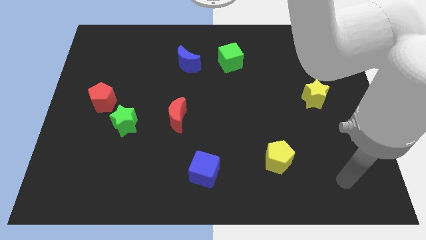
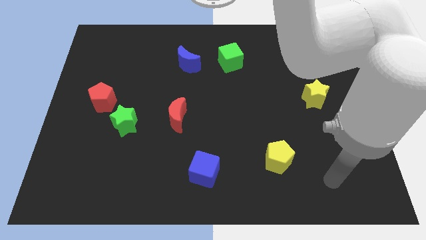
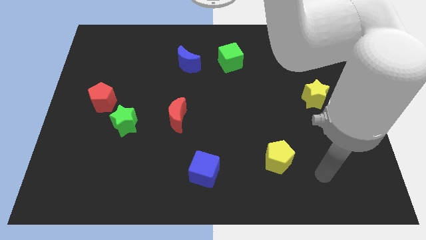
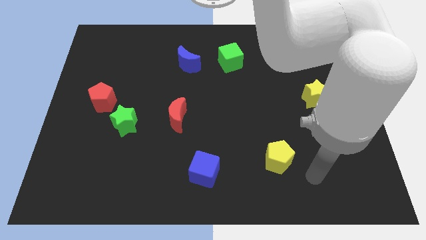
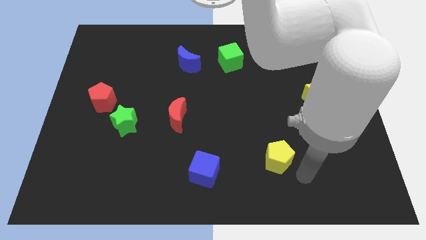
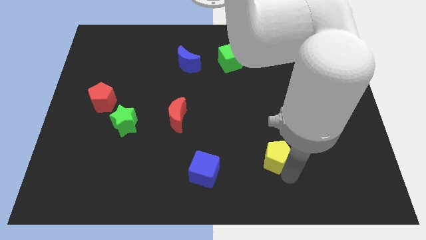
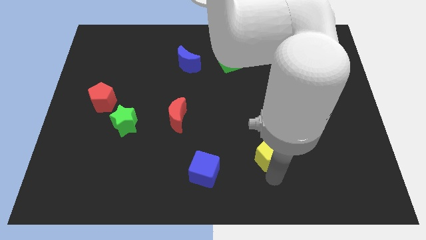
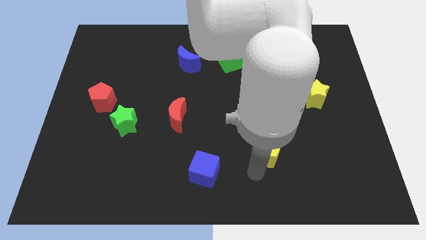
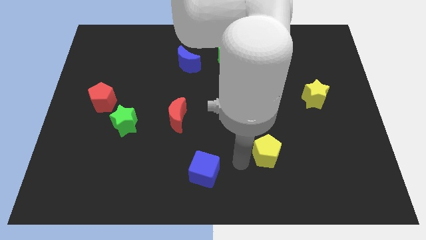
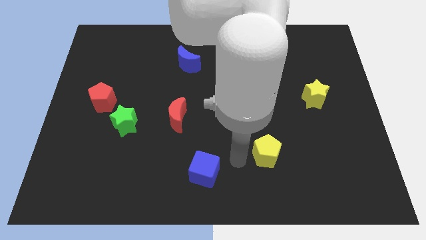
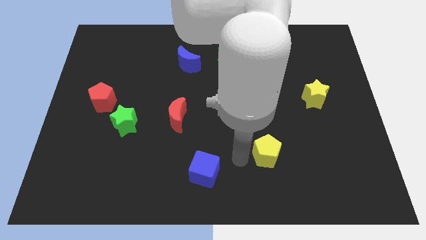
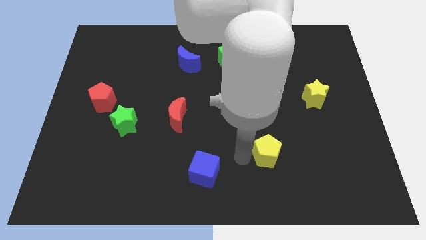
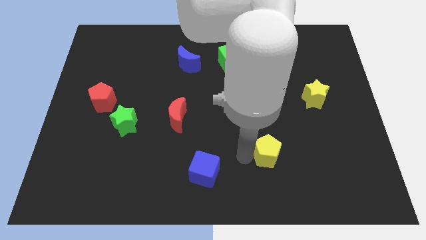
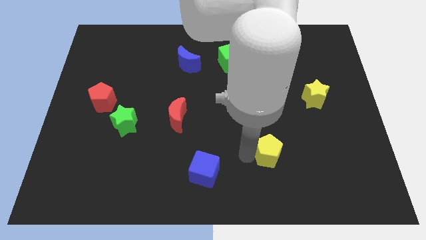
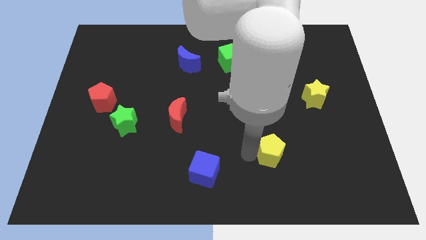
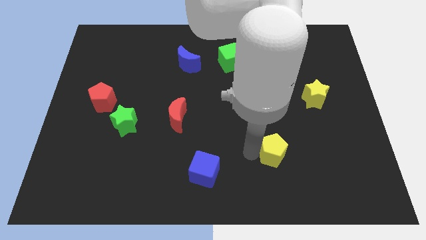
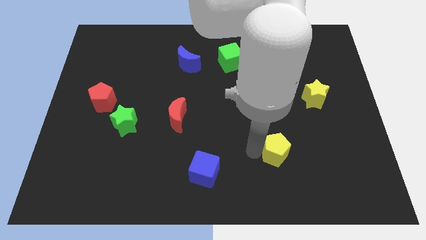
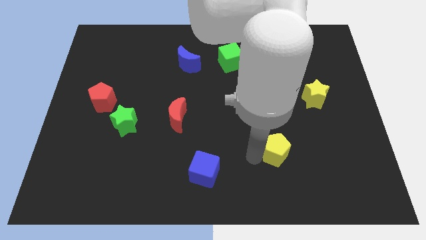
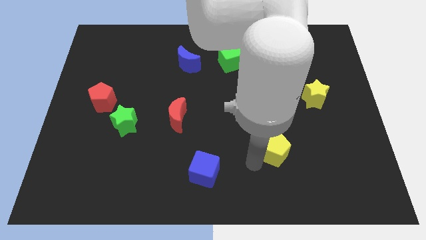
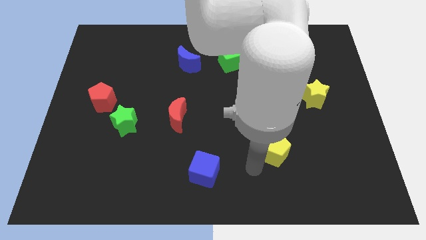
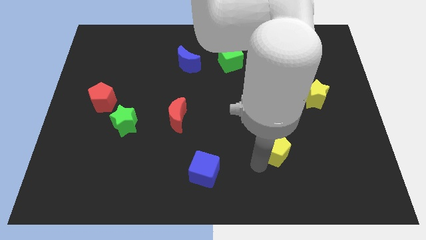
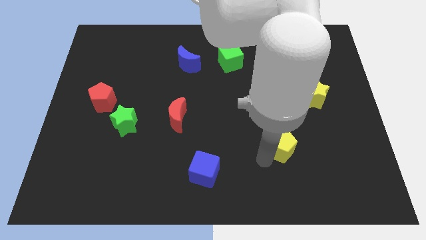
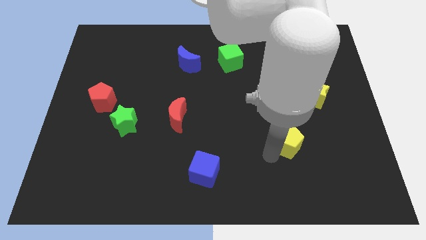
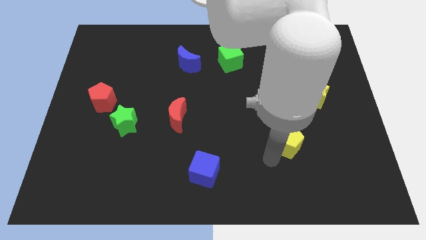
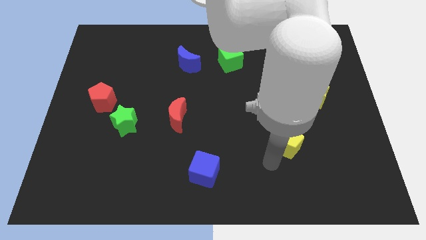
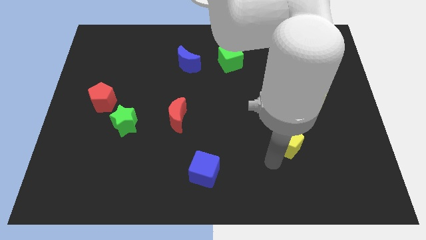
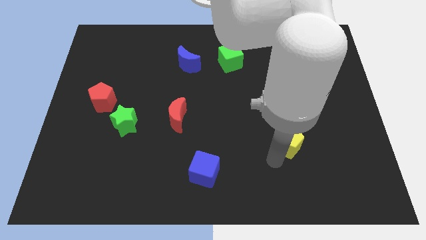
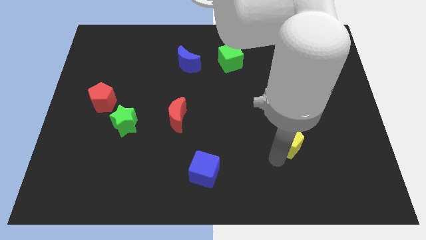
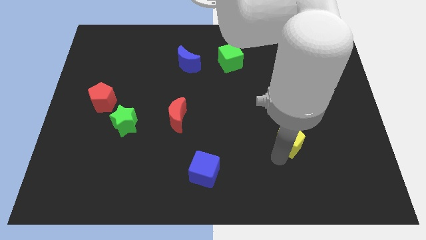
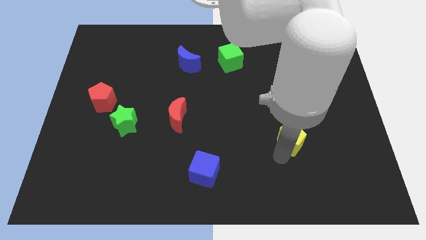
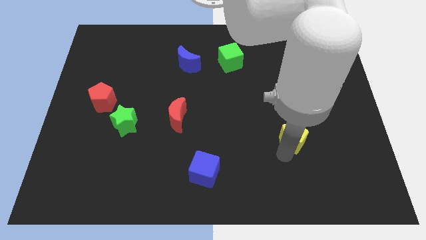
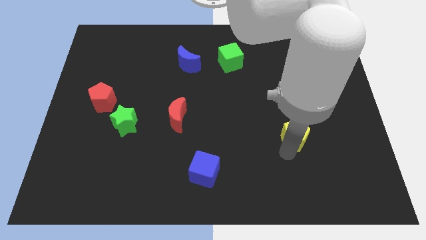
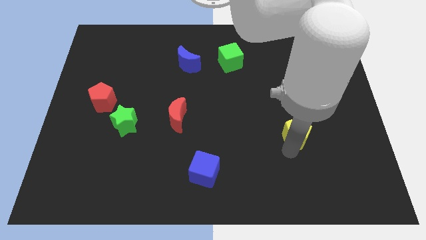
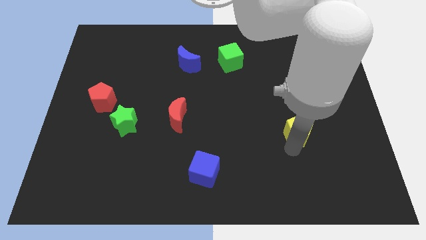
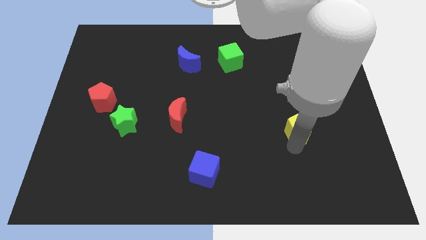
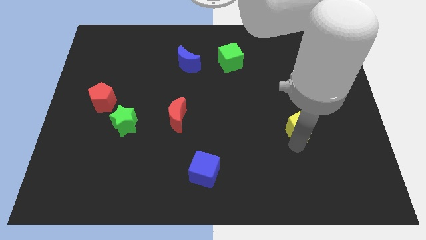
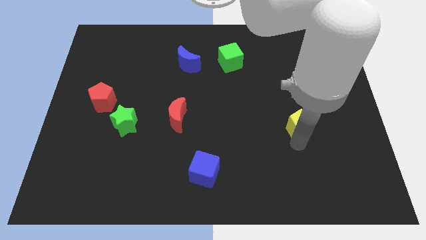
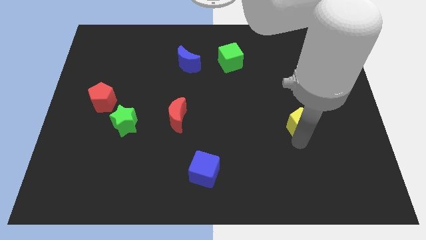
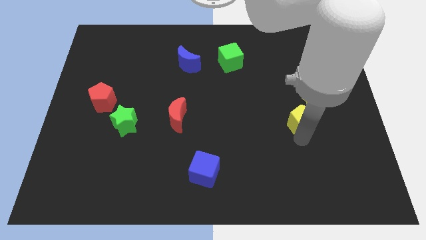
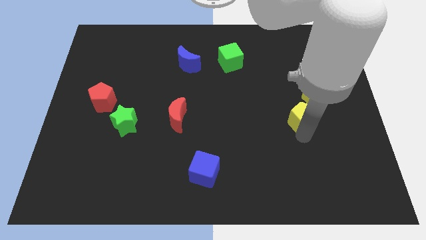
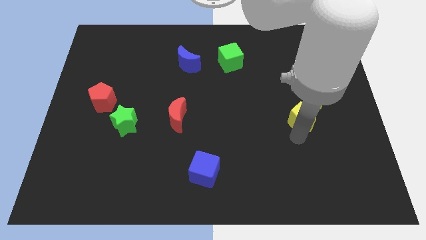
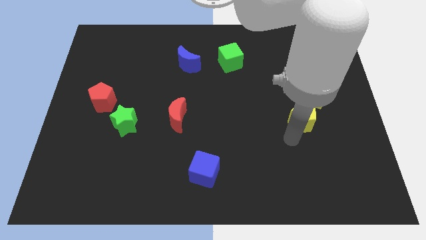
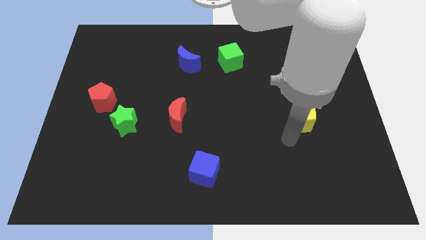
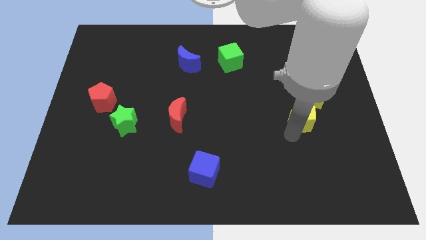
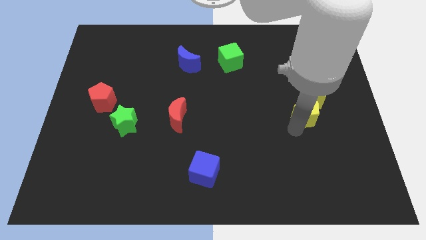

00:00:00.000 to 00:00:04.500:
slide the yellow pentagon close to the yellow star

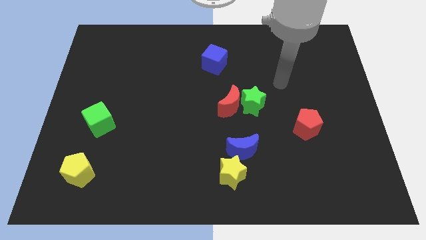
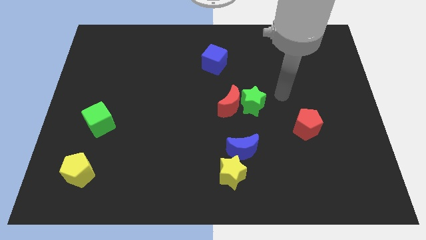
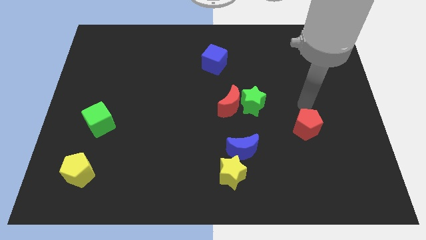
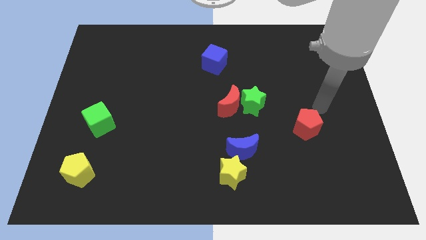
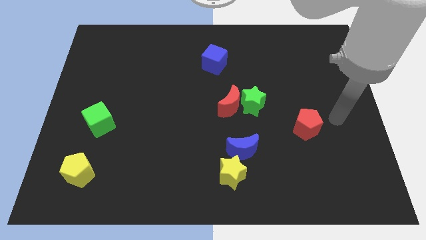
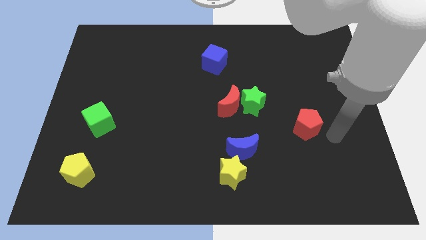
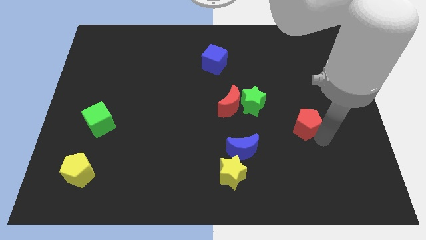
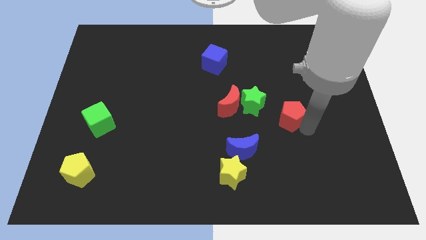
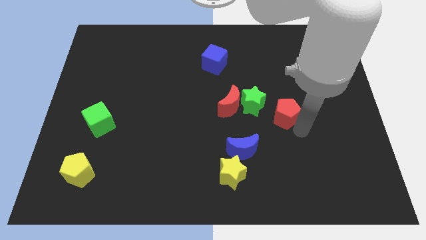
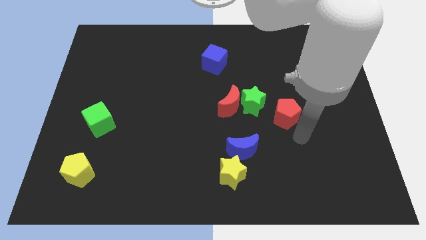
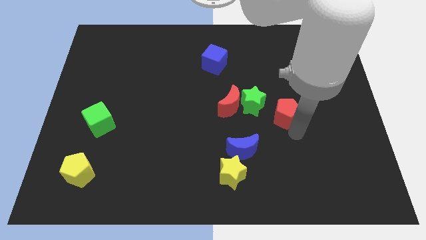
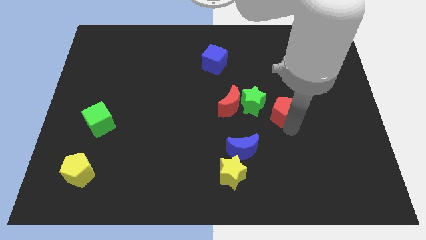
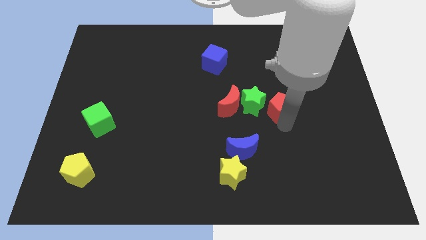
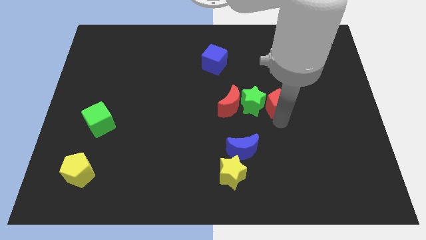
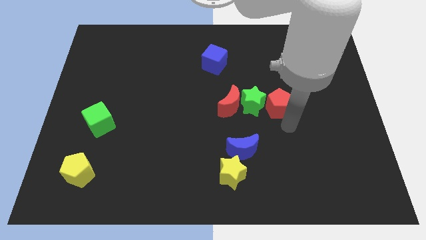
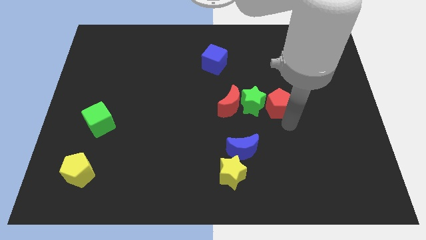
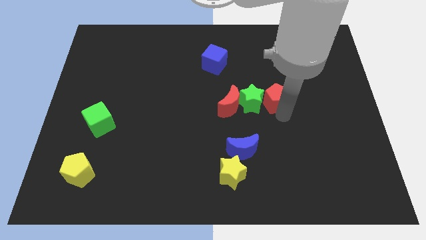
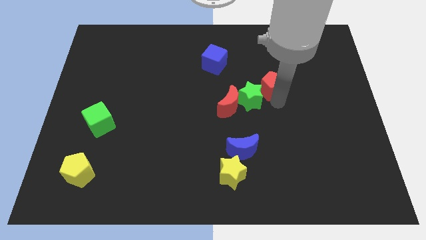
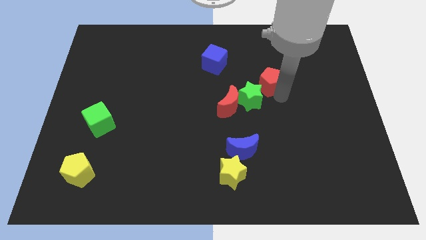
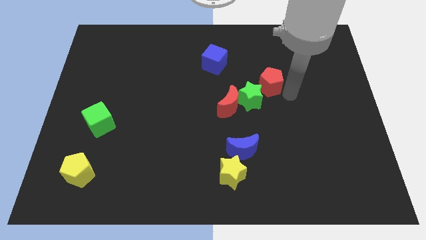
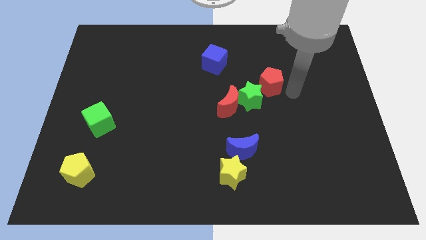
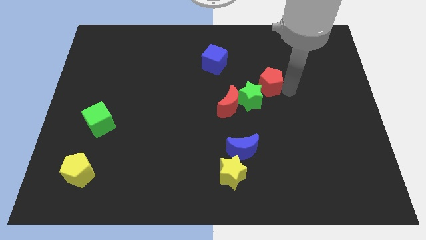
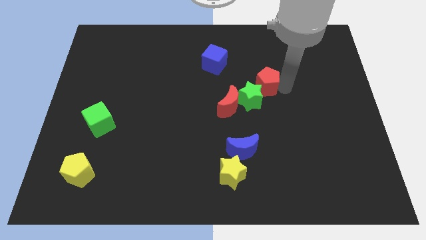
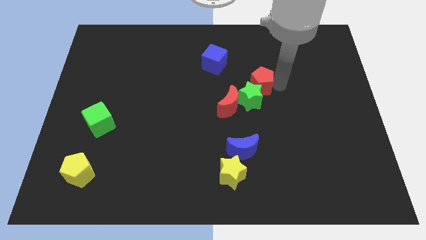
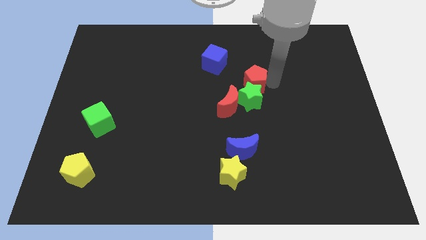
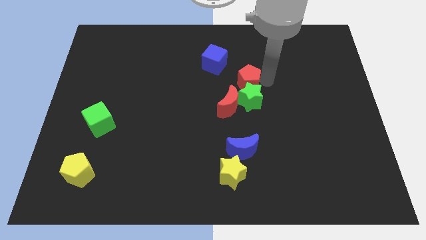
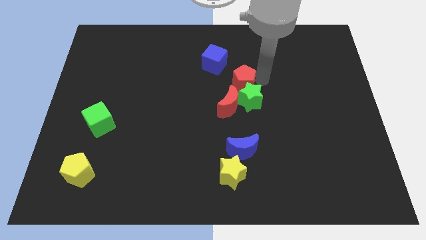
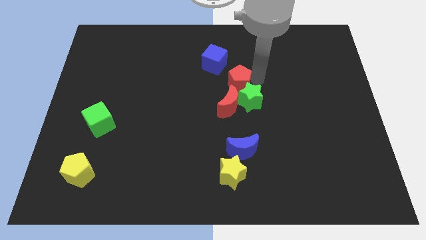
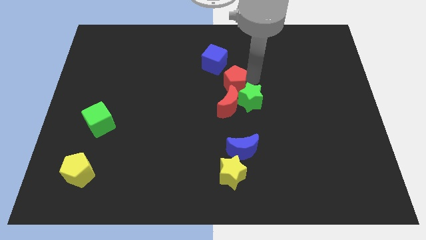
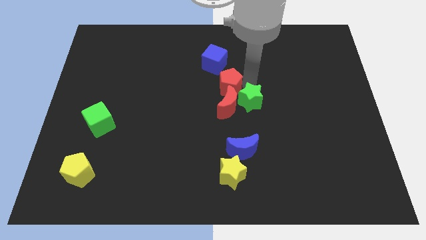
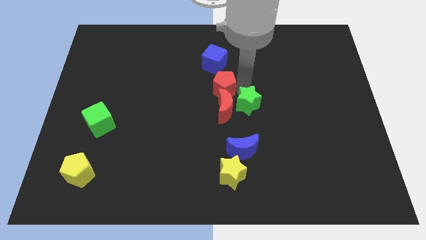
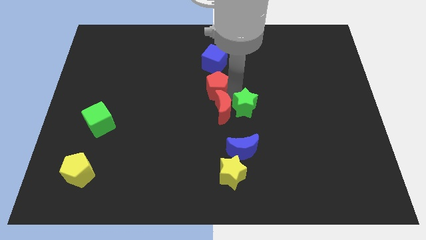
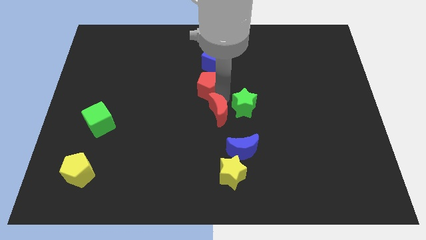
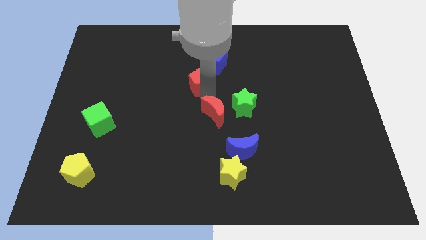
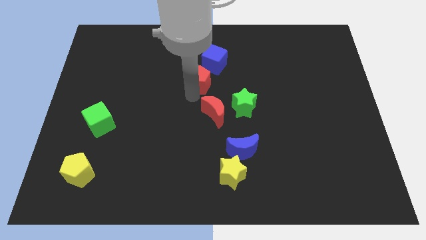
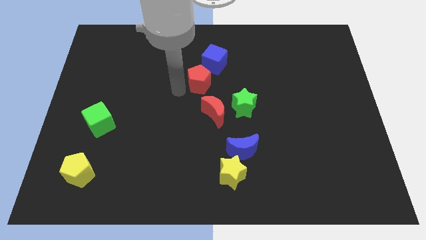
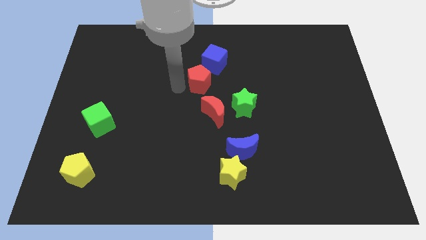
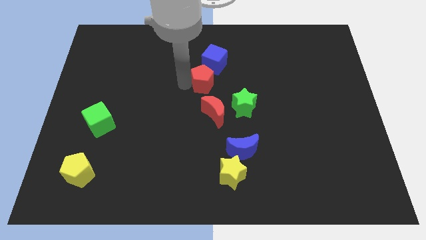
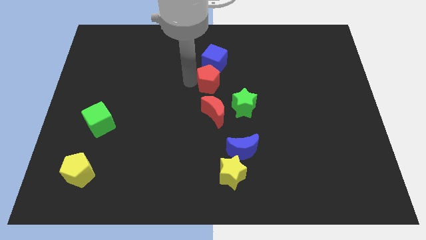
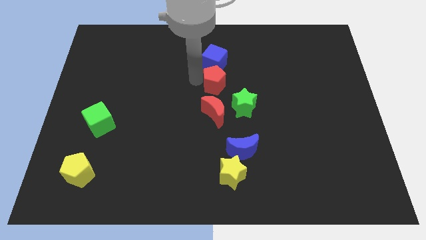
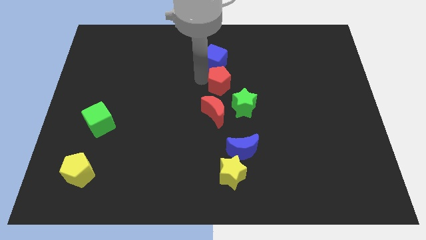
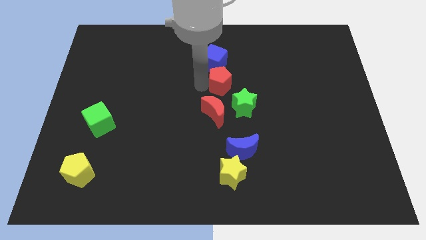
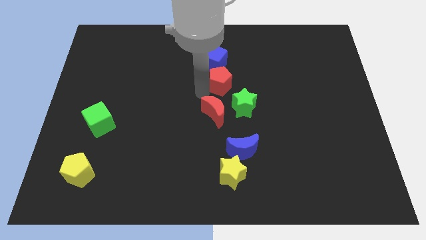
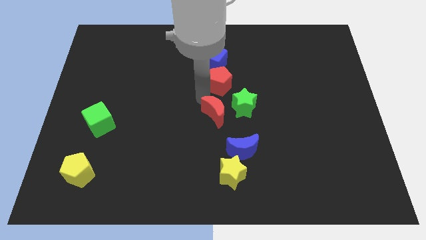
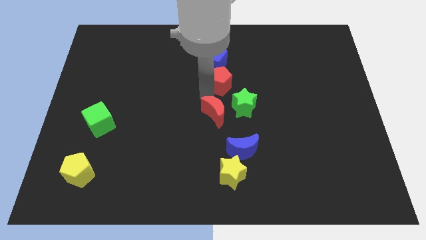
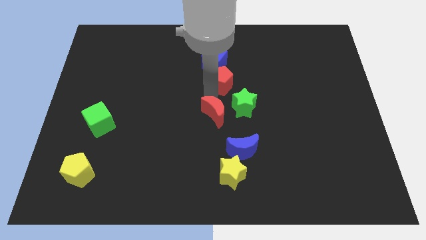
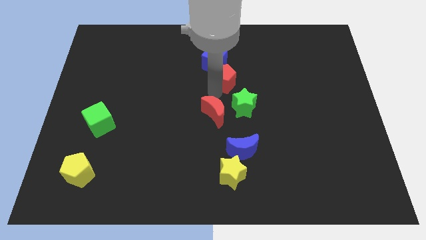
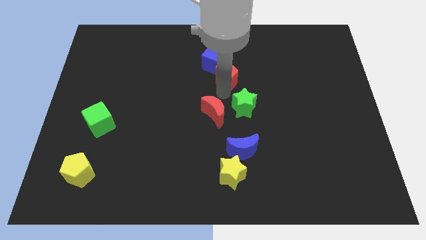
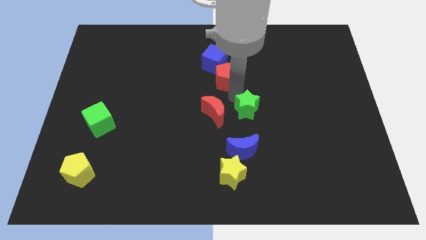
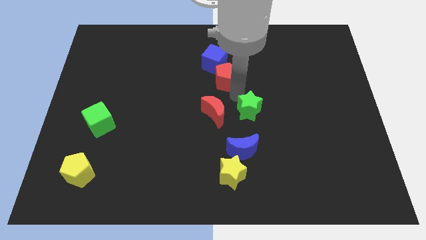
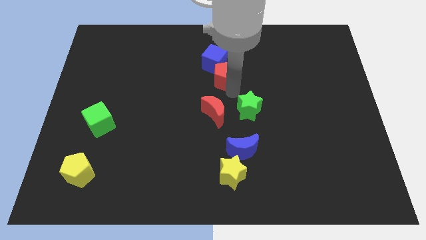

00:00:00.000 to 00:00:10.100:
slide the red pentagon towards the blue cube
